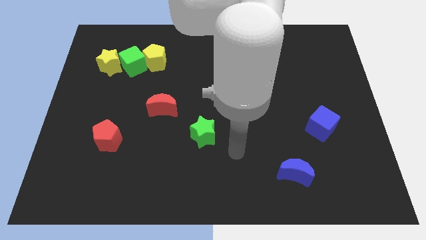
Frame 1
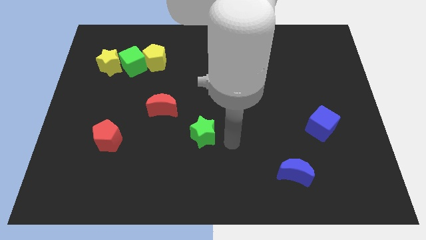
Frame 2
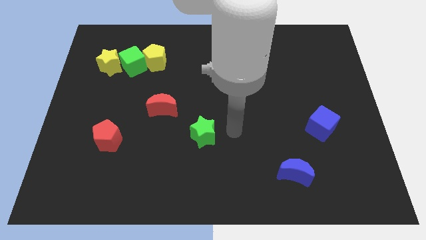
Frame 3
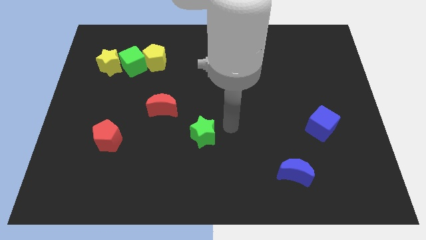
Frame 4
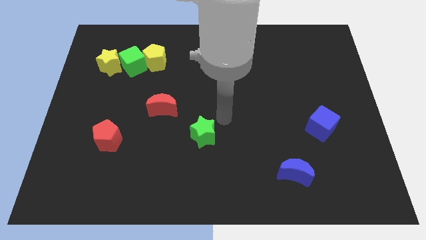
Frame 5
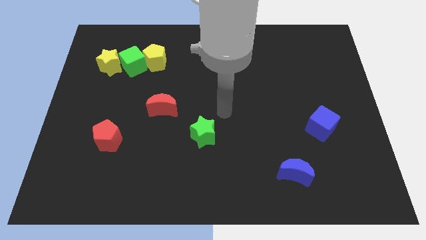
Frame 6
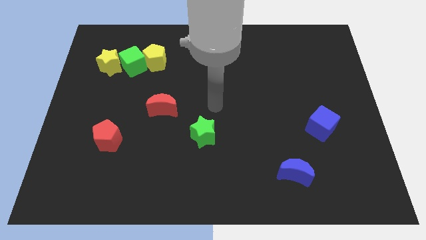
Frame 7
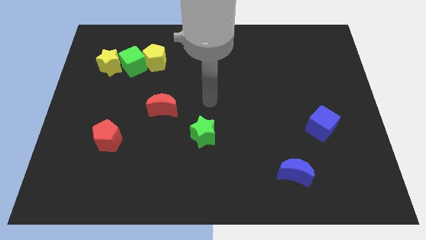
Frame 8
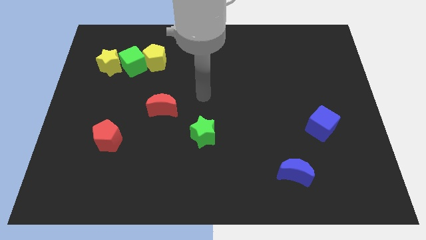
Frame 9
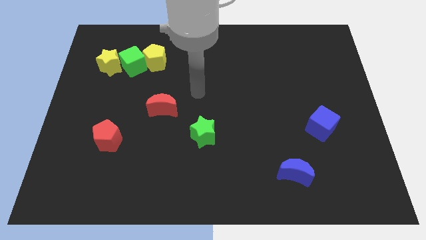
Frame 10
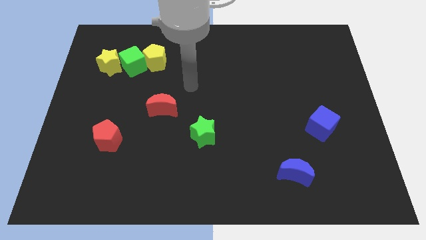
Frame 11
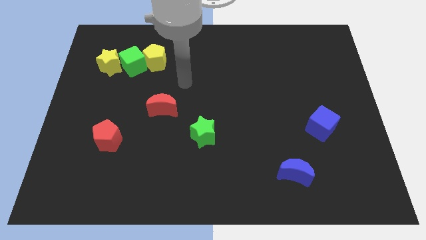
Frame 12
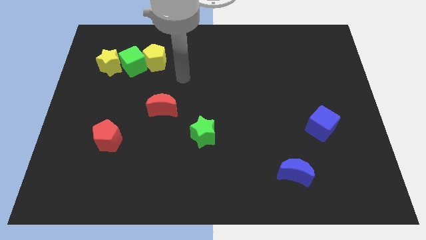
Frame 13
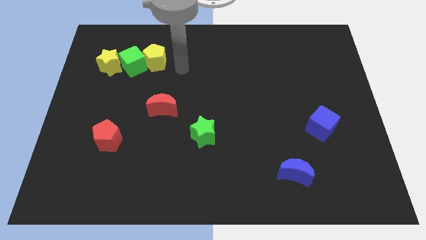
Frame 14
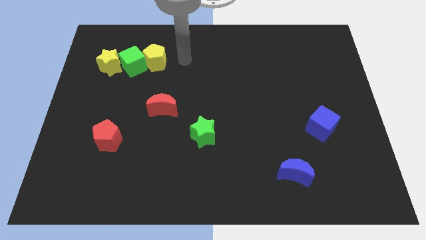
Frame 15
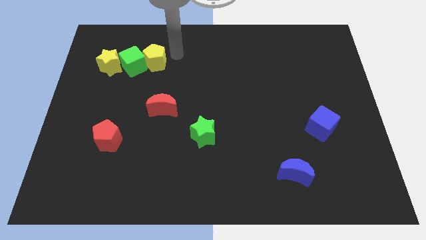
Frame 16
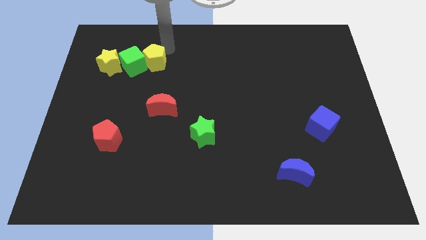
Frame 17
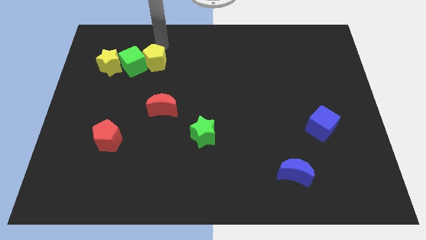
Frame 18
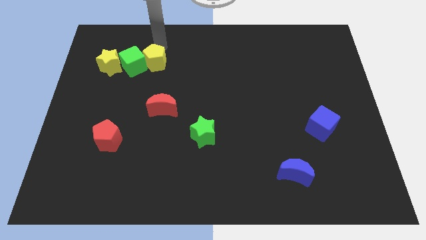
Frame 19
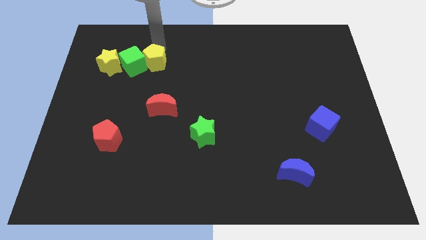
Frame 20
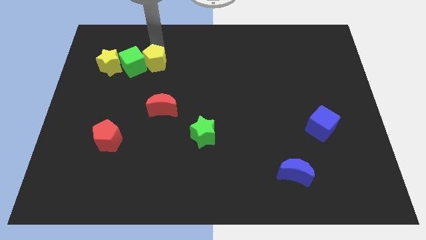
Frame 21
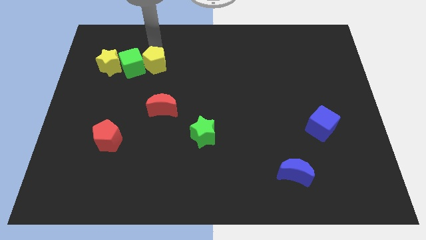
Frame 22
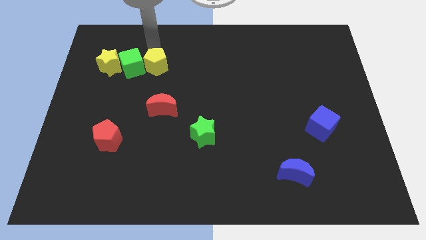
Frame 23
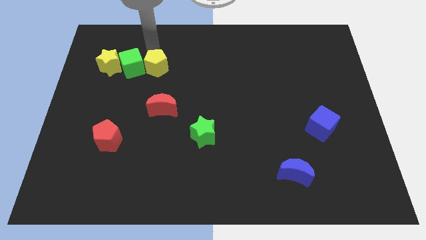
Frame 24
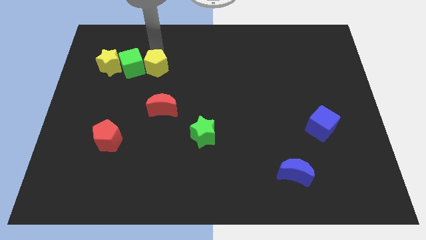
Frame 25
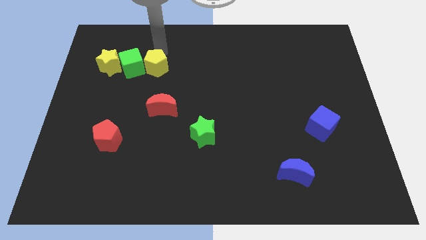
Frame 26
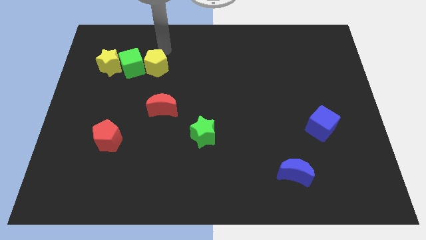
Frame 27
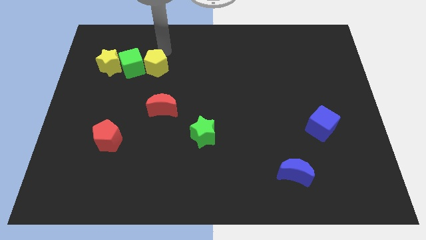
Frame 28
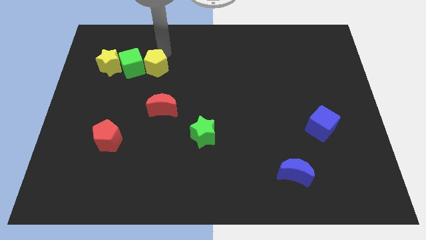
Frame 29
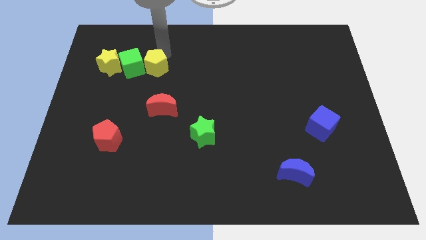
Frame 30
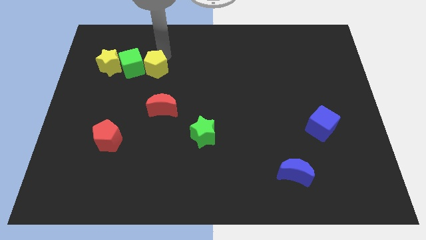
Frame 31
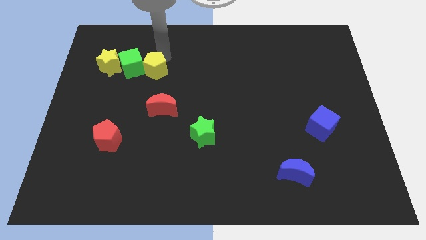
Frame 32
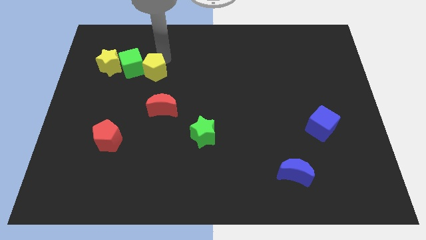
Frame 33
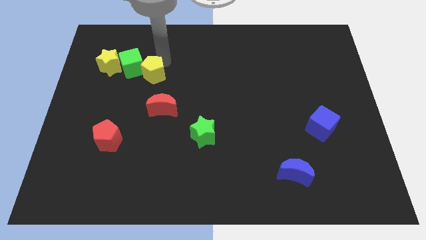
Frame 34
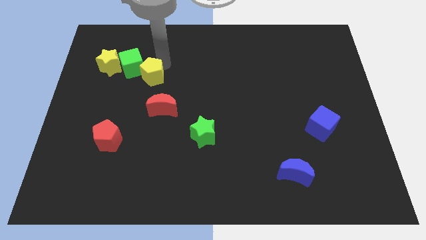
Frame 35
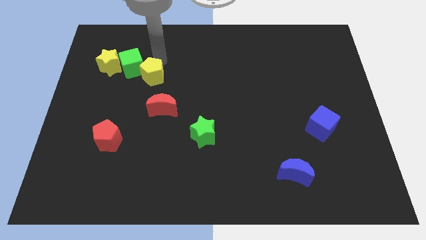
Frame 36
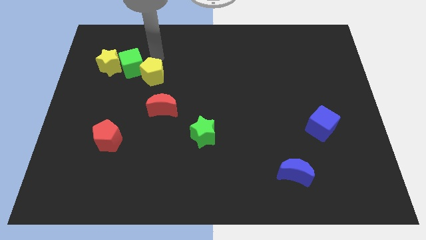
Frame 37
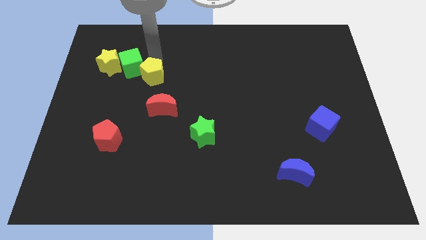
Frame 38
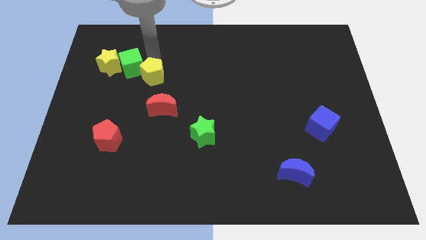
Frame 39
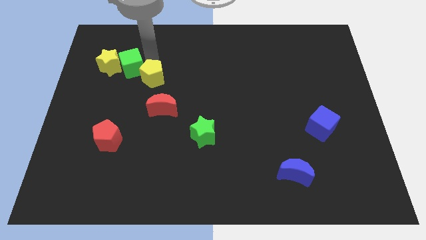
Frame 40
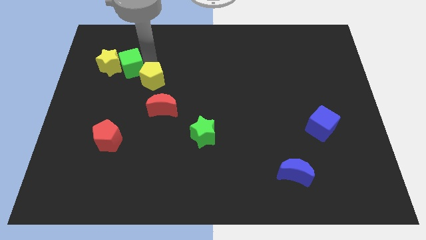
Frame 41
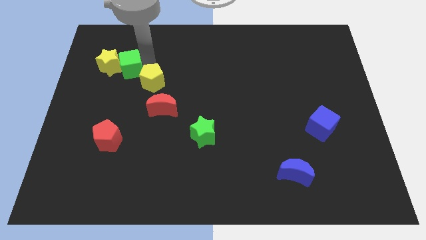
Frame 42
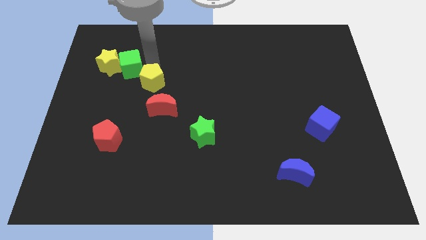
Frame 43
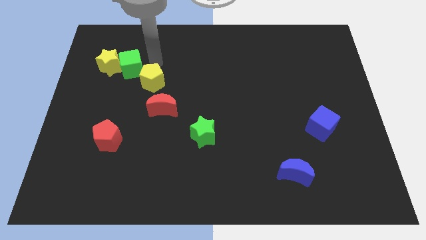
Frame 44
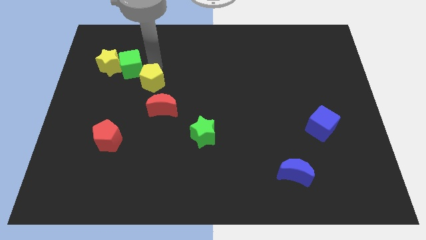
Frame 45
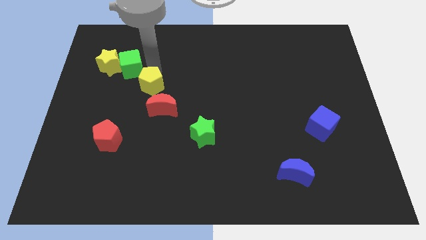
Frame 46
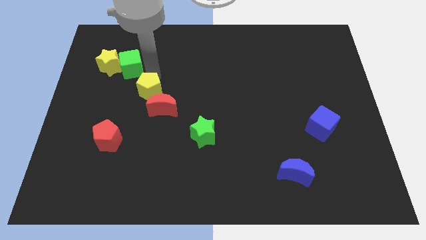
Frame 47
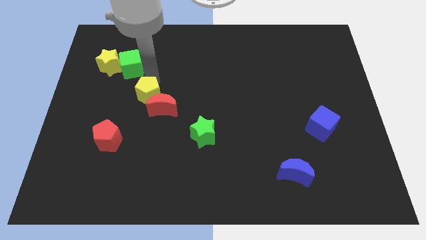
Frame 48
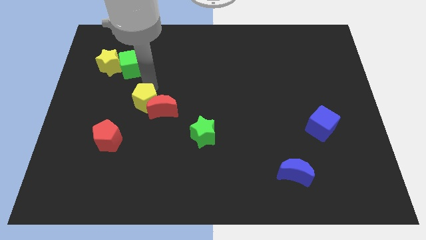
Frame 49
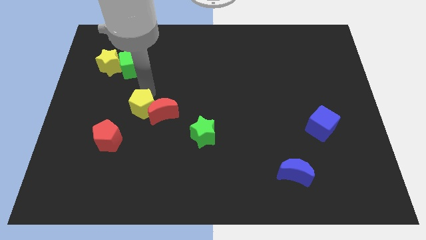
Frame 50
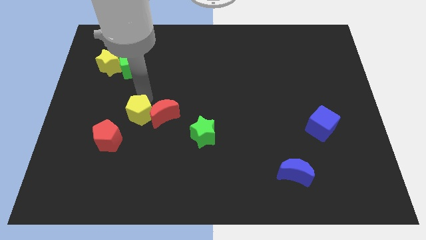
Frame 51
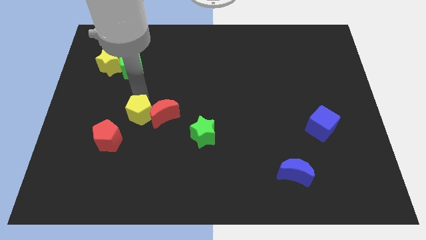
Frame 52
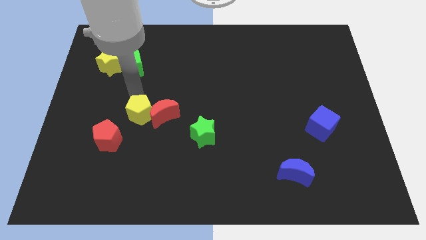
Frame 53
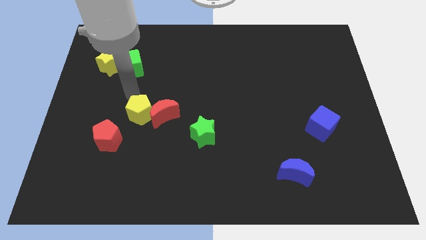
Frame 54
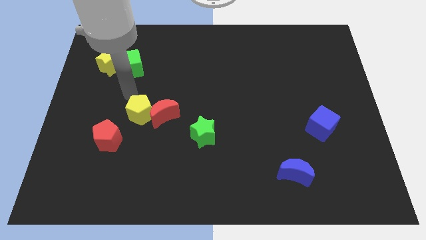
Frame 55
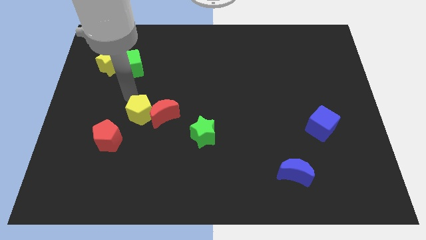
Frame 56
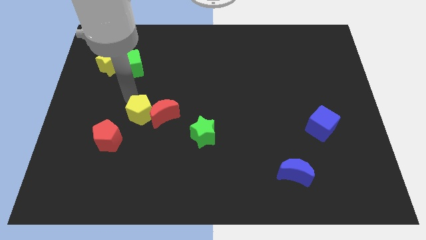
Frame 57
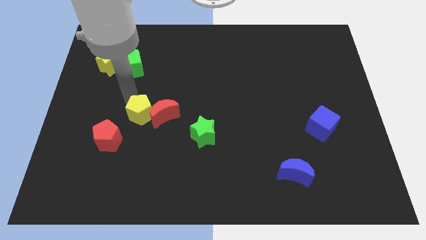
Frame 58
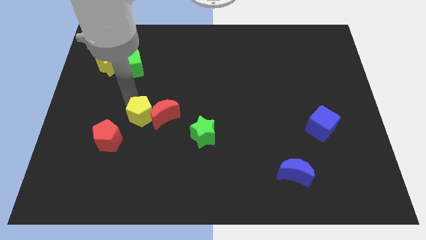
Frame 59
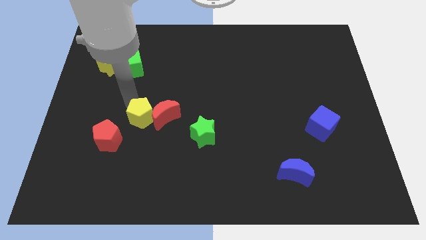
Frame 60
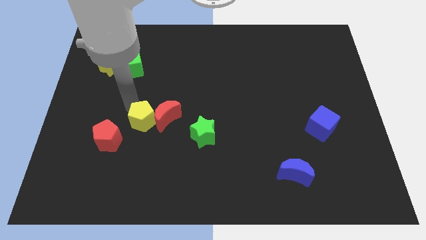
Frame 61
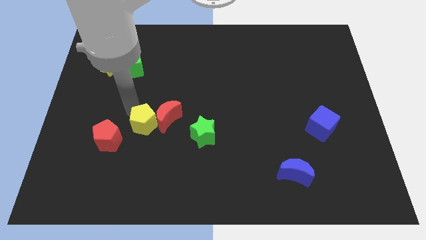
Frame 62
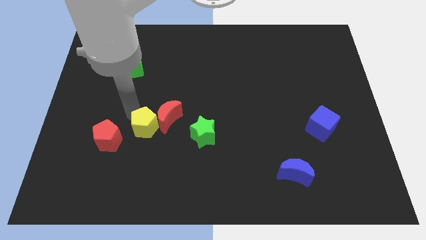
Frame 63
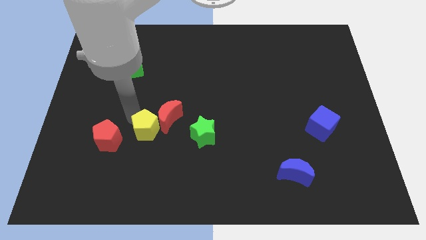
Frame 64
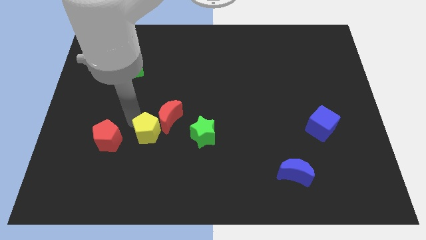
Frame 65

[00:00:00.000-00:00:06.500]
move the yellow pentagon to the bottom of the red moon

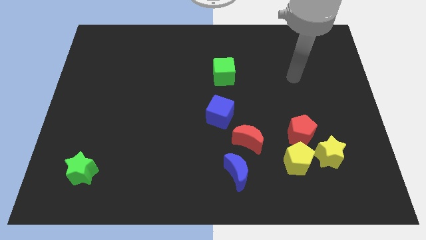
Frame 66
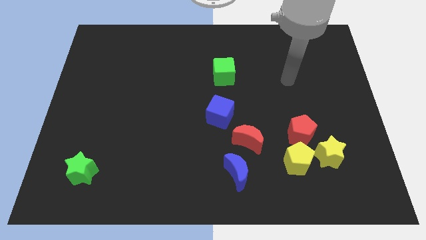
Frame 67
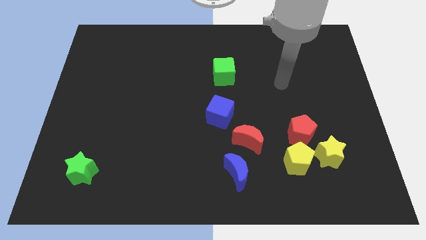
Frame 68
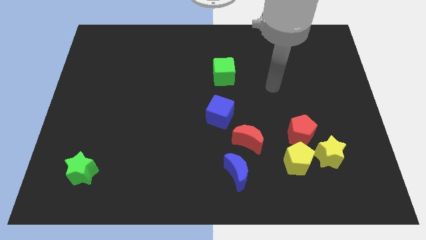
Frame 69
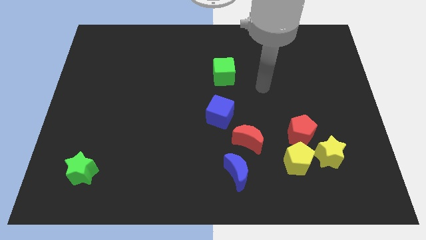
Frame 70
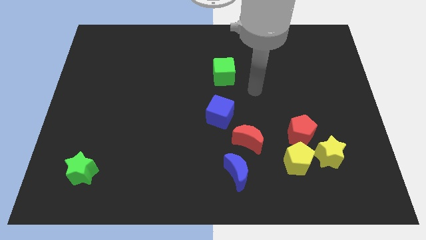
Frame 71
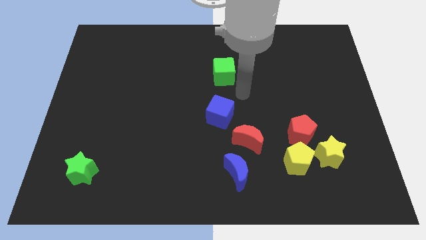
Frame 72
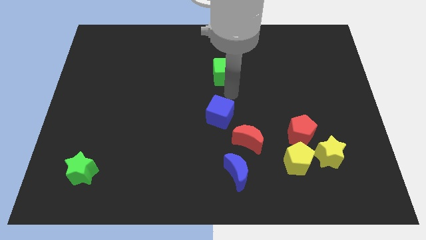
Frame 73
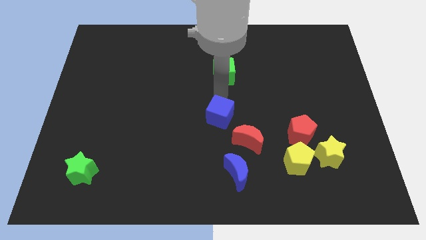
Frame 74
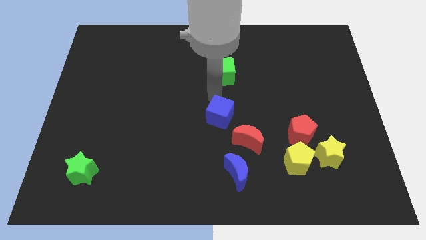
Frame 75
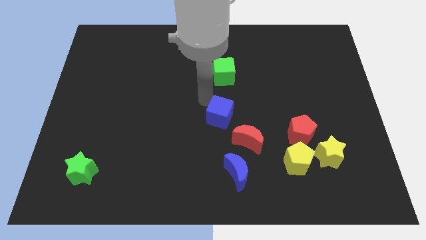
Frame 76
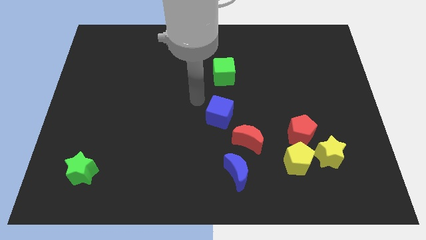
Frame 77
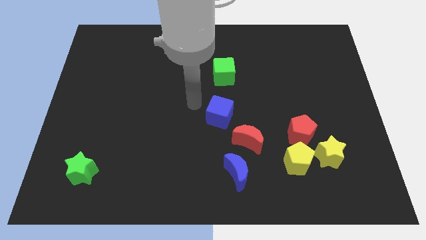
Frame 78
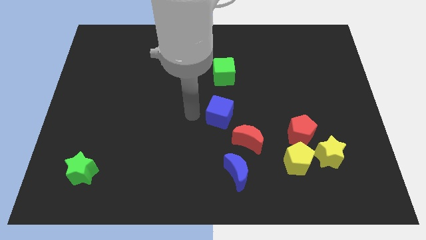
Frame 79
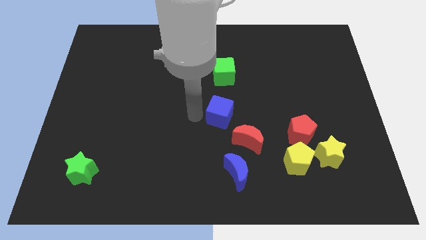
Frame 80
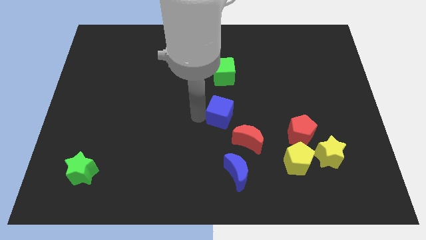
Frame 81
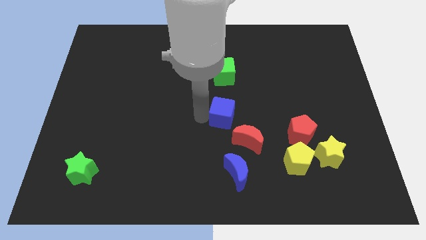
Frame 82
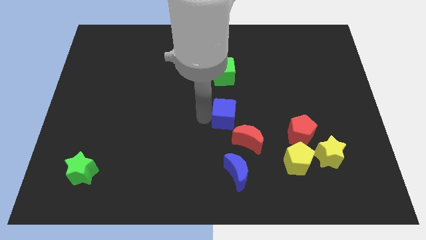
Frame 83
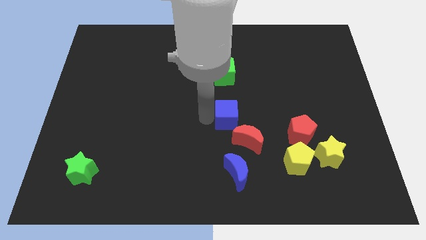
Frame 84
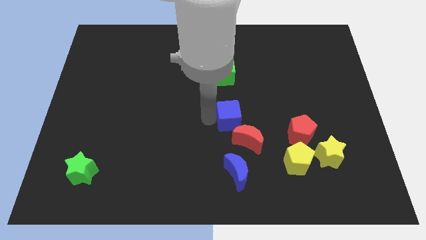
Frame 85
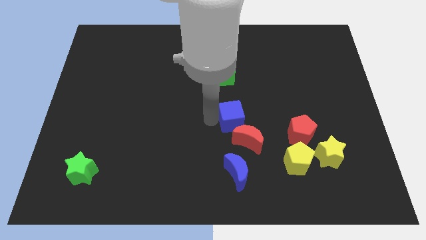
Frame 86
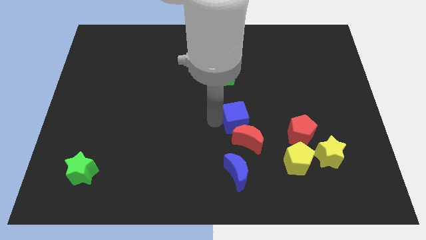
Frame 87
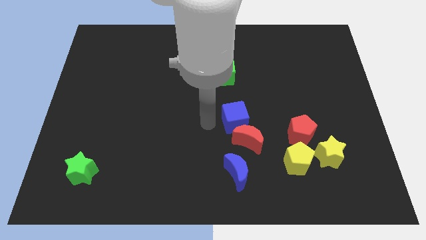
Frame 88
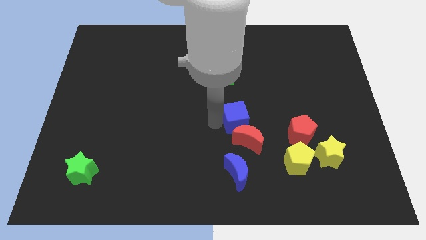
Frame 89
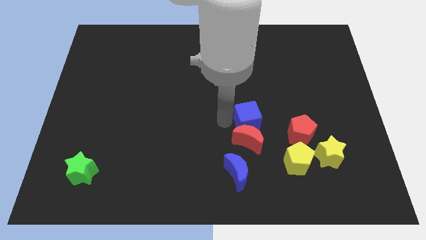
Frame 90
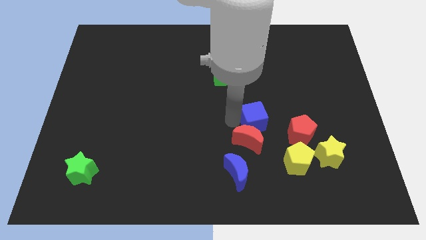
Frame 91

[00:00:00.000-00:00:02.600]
push the blue cube to the top left side of the red pentagon
